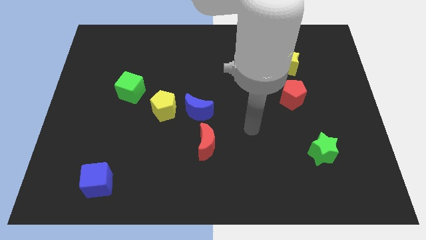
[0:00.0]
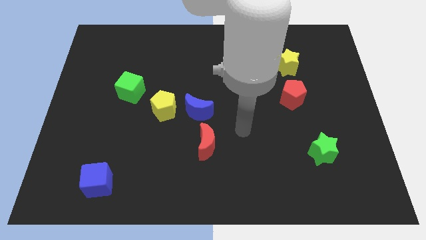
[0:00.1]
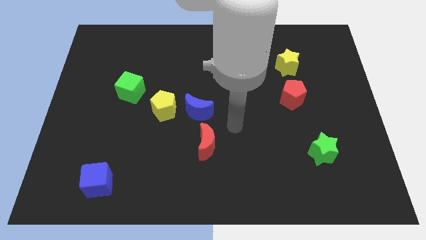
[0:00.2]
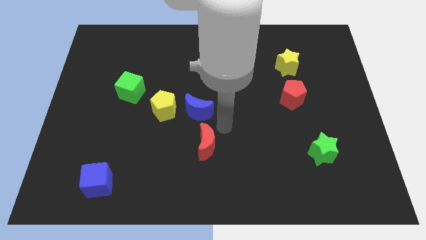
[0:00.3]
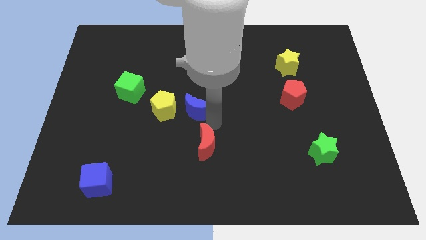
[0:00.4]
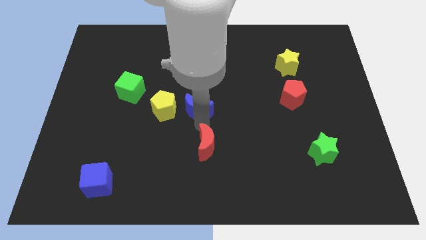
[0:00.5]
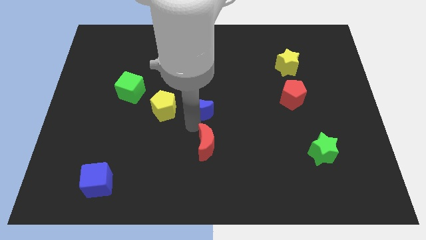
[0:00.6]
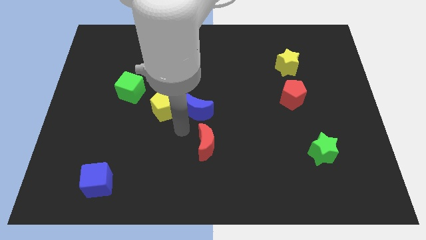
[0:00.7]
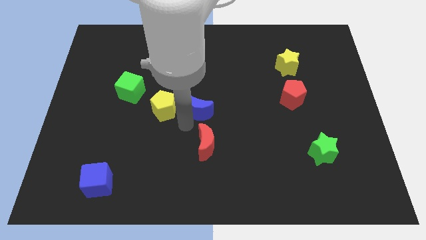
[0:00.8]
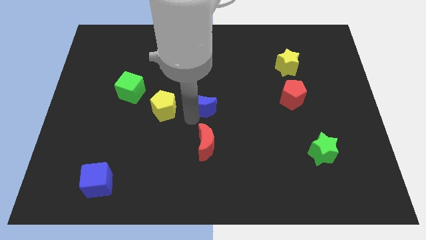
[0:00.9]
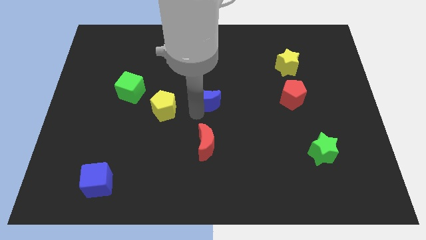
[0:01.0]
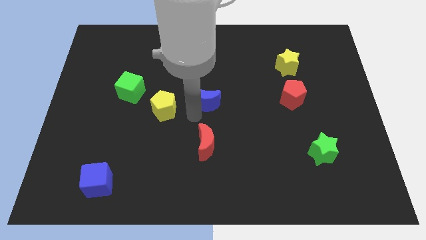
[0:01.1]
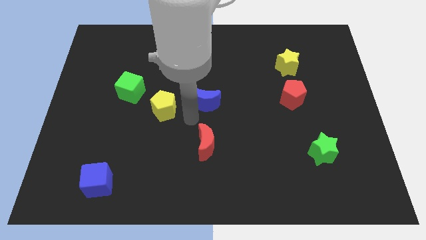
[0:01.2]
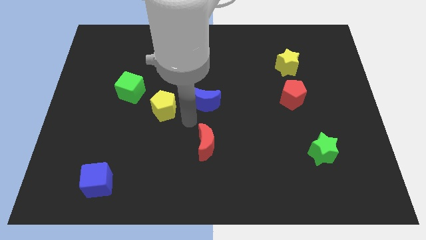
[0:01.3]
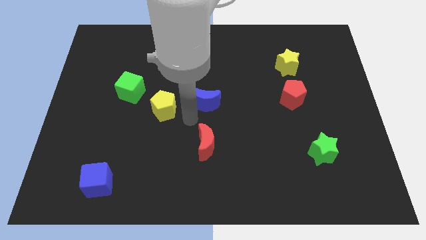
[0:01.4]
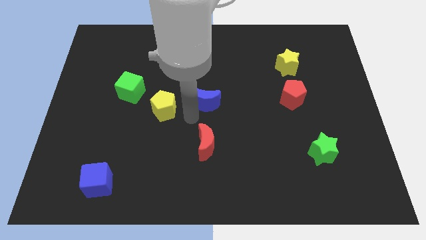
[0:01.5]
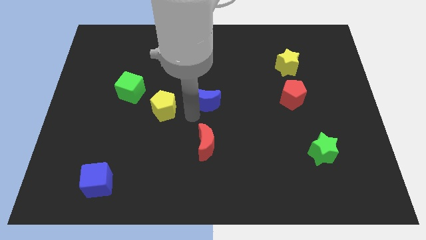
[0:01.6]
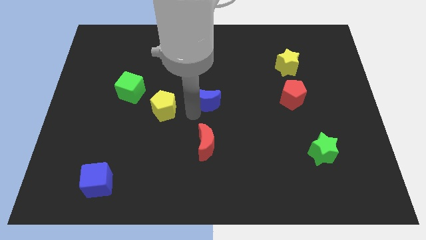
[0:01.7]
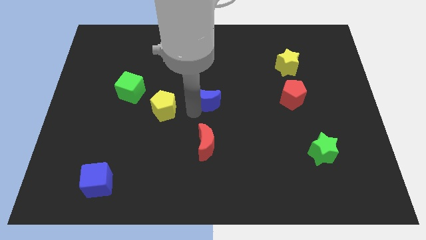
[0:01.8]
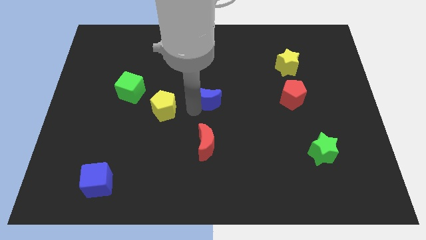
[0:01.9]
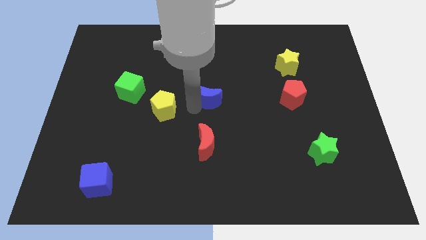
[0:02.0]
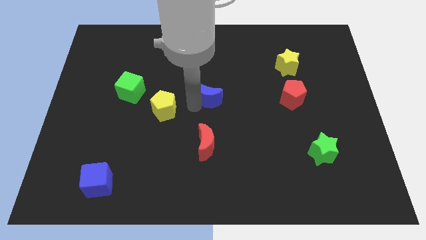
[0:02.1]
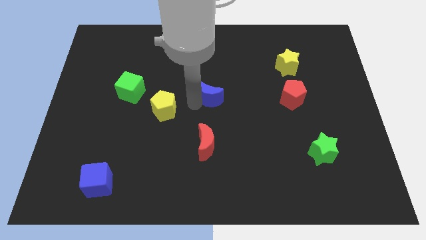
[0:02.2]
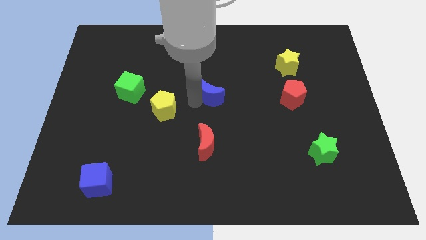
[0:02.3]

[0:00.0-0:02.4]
move the blue moon away from the yellow pentagon and red moon

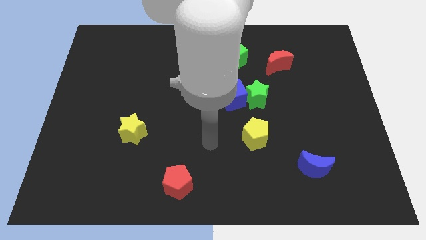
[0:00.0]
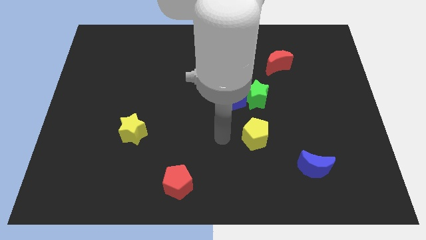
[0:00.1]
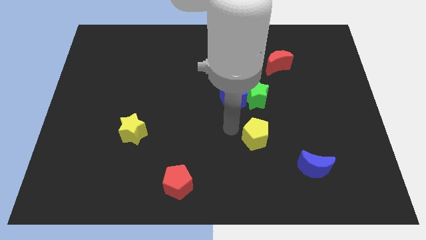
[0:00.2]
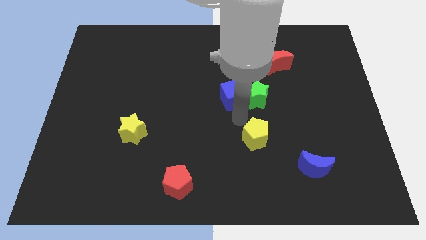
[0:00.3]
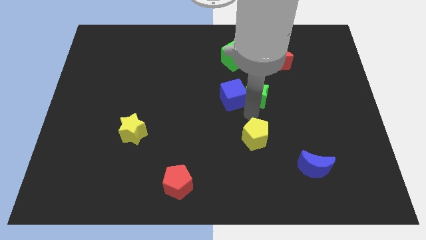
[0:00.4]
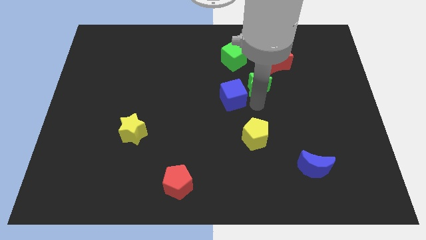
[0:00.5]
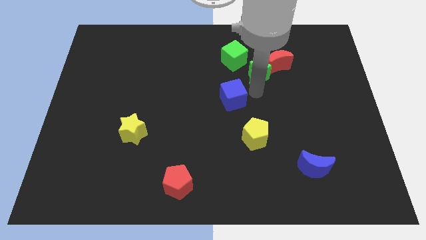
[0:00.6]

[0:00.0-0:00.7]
pull the blue cube apart from the green star

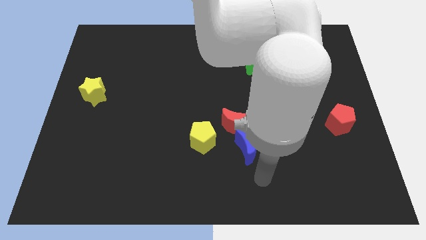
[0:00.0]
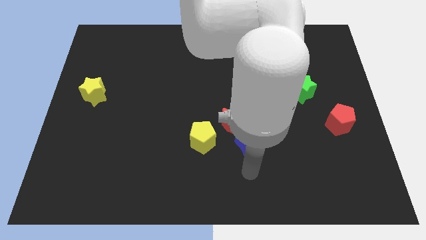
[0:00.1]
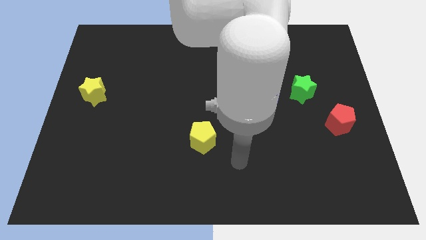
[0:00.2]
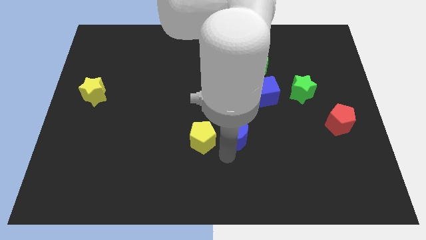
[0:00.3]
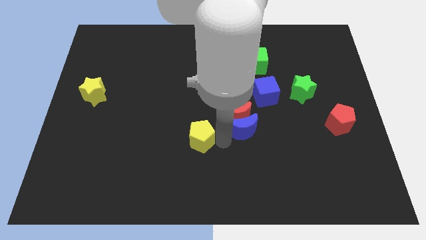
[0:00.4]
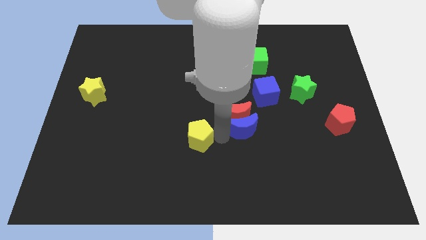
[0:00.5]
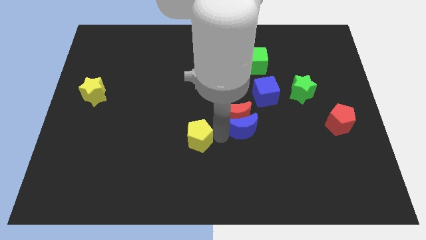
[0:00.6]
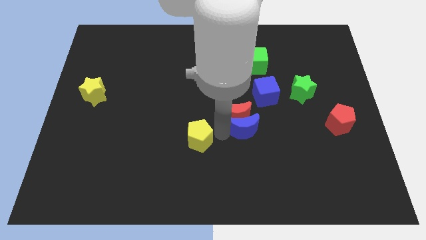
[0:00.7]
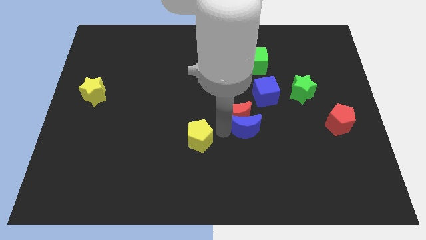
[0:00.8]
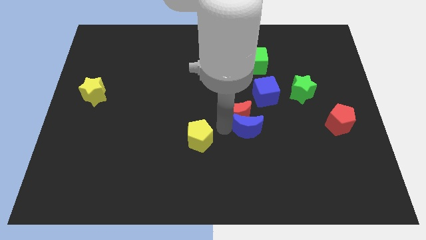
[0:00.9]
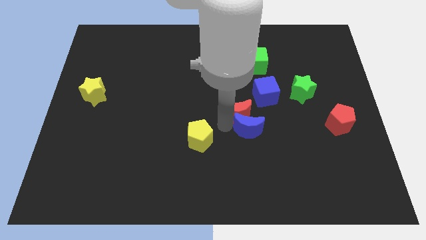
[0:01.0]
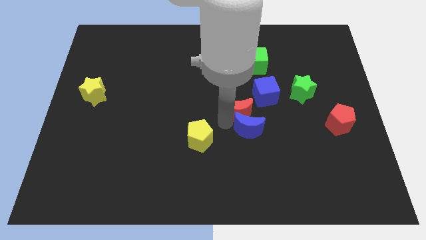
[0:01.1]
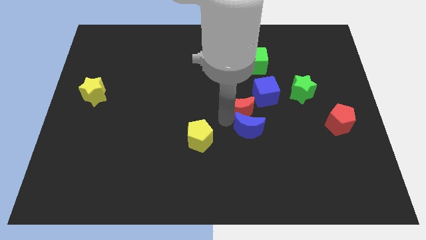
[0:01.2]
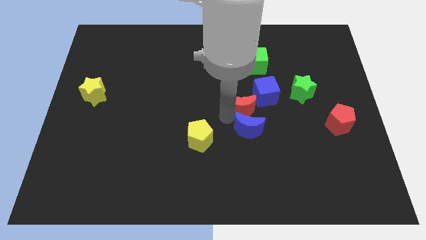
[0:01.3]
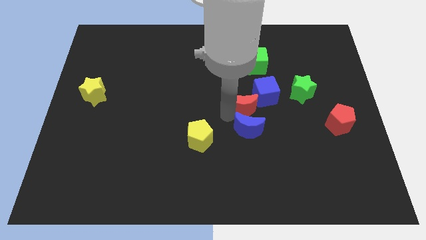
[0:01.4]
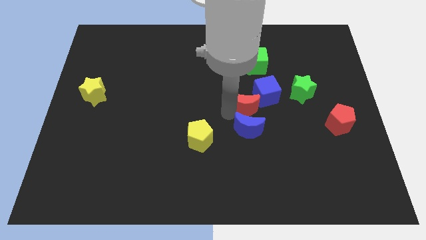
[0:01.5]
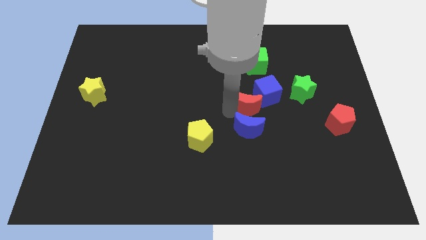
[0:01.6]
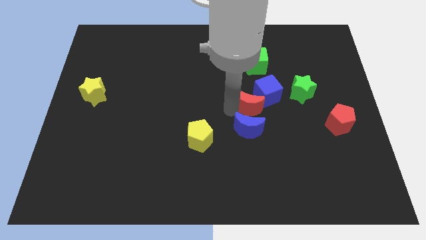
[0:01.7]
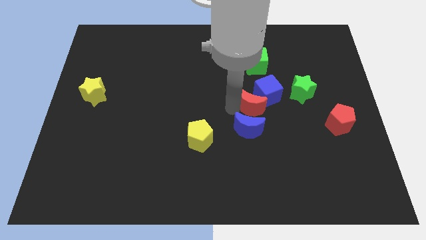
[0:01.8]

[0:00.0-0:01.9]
separate the red moon from the blue moon and yellow pentagon

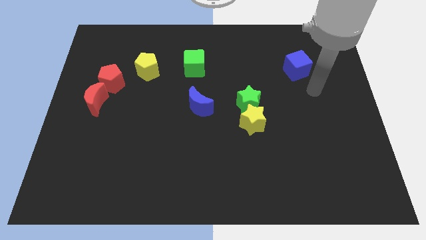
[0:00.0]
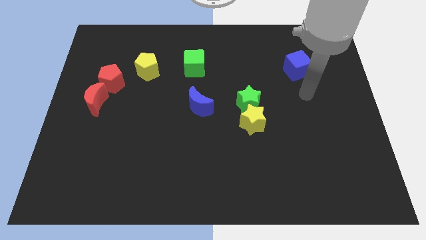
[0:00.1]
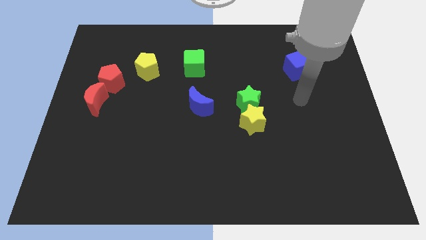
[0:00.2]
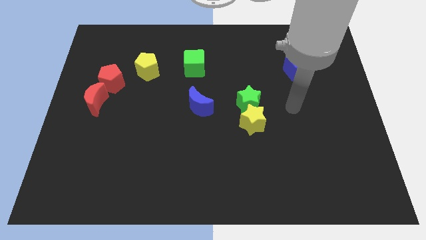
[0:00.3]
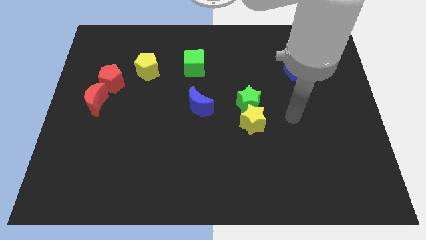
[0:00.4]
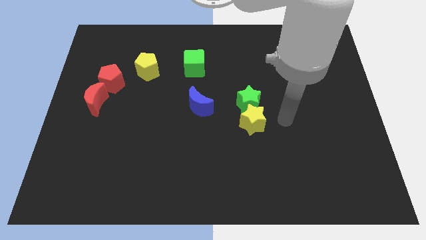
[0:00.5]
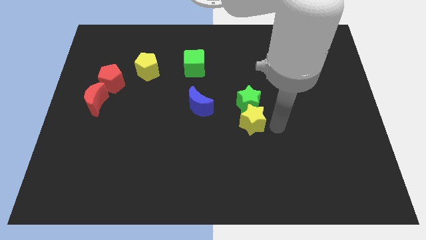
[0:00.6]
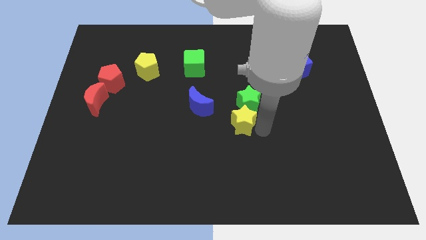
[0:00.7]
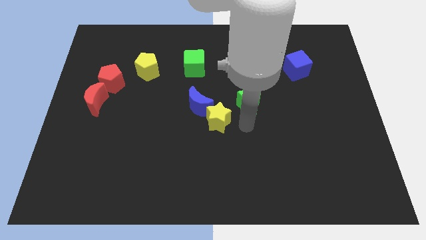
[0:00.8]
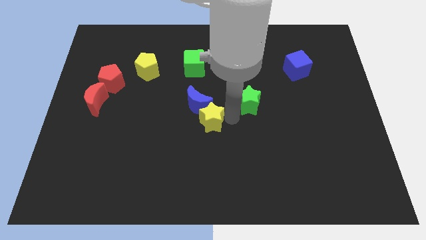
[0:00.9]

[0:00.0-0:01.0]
separate the green star from the yellow star

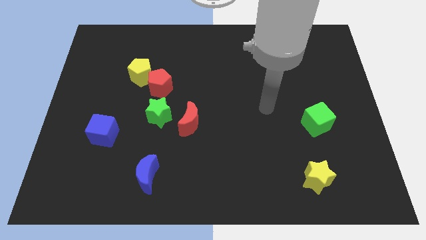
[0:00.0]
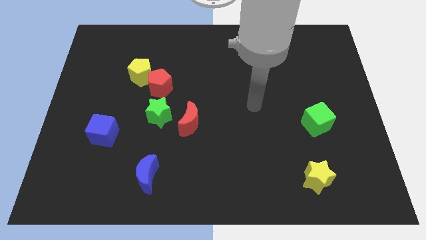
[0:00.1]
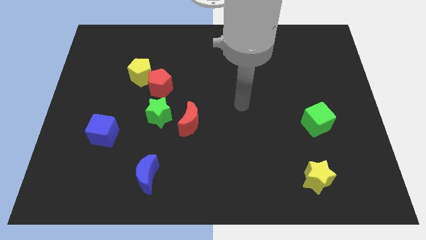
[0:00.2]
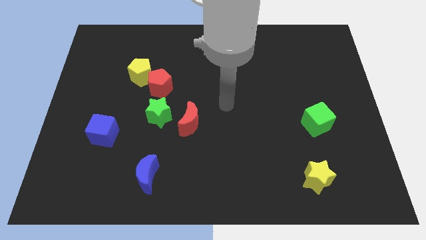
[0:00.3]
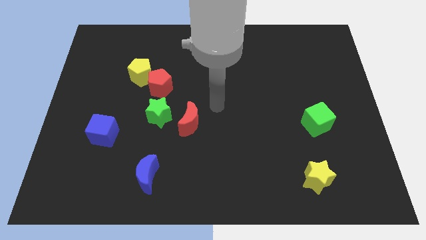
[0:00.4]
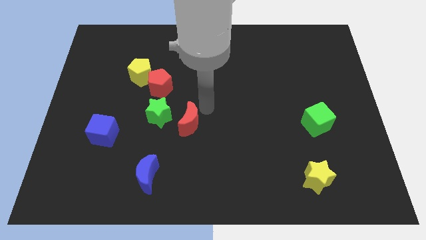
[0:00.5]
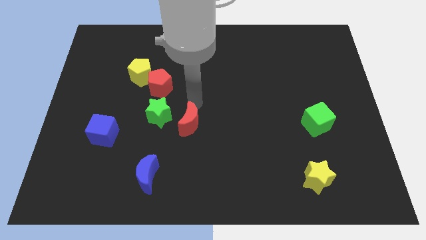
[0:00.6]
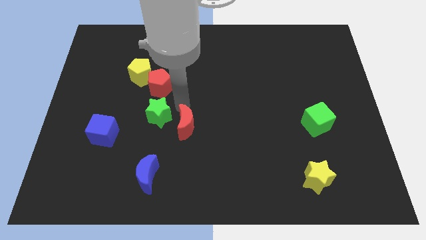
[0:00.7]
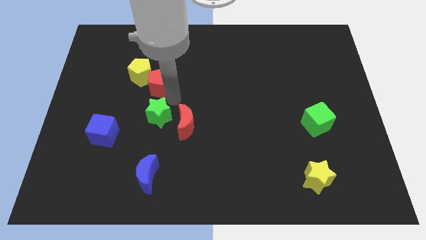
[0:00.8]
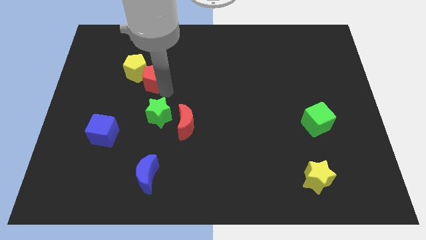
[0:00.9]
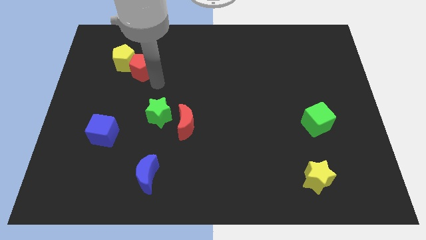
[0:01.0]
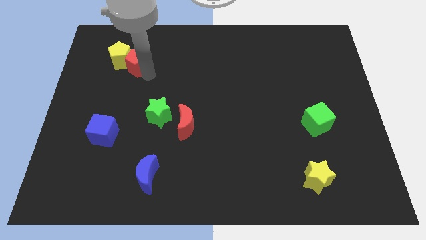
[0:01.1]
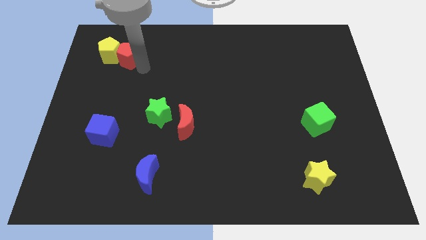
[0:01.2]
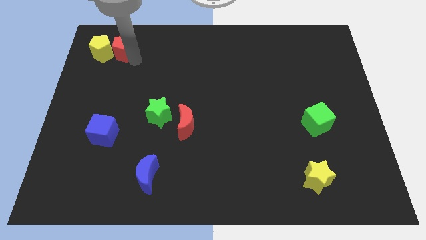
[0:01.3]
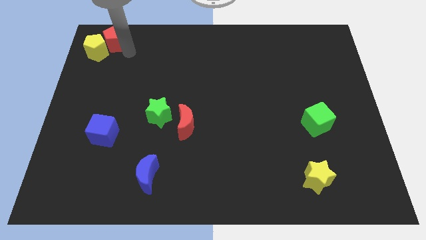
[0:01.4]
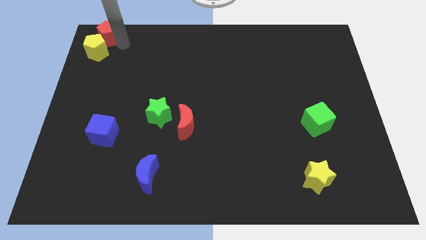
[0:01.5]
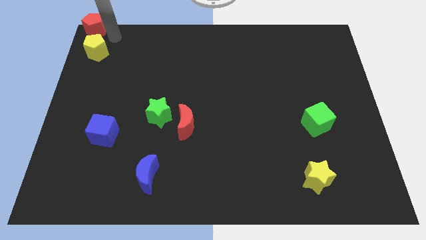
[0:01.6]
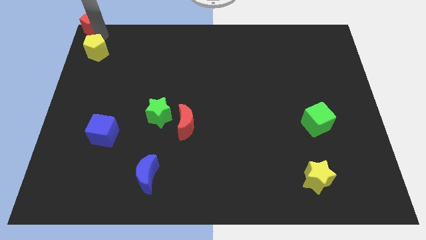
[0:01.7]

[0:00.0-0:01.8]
move the yellow pentagon away from the red pentagon

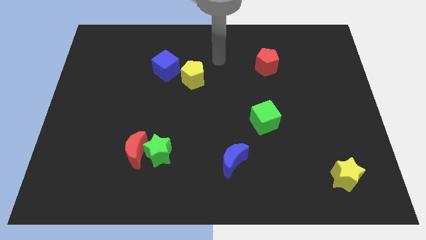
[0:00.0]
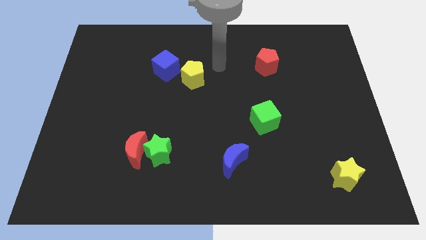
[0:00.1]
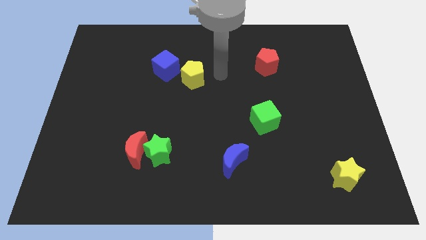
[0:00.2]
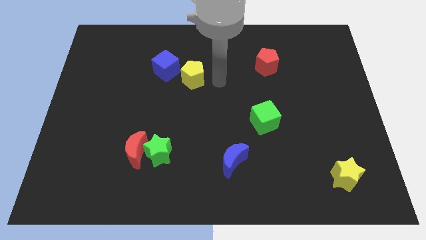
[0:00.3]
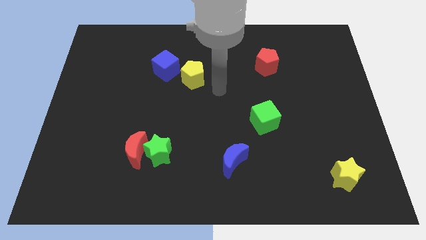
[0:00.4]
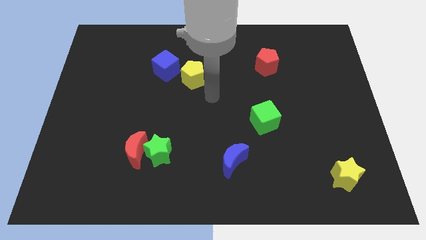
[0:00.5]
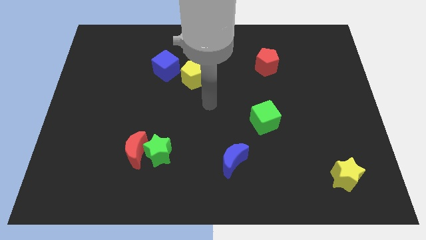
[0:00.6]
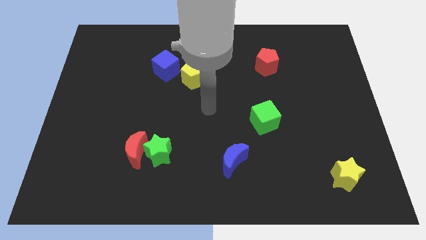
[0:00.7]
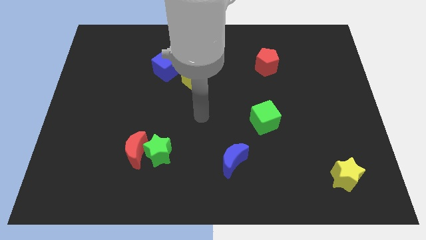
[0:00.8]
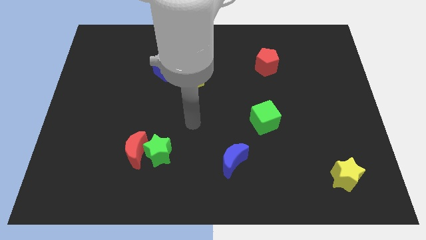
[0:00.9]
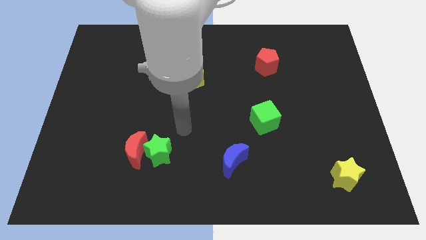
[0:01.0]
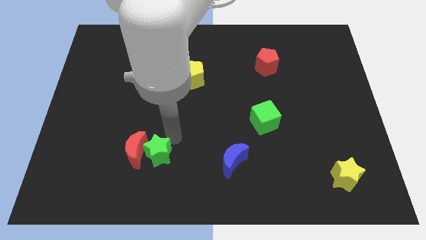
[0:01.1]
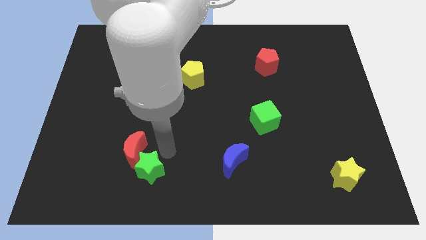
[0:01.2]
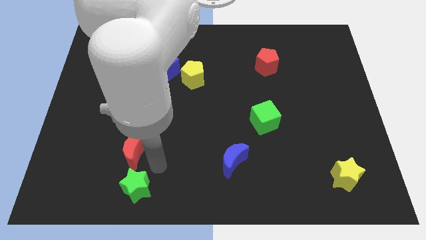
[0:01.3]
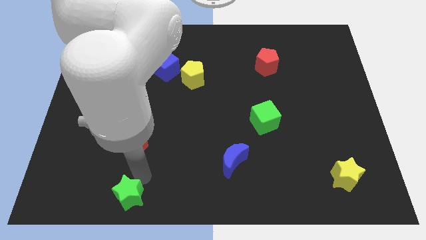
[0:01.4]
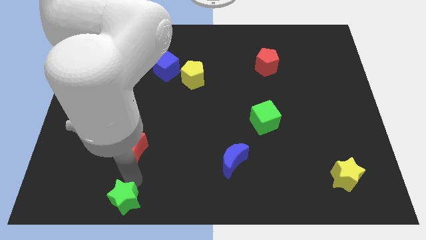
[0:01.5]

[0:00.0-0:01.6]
move the red moon away from the green star
